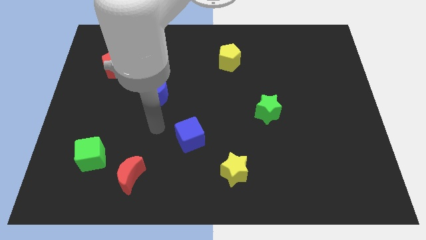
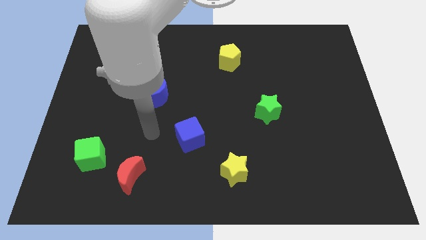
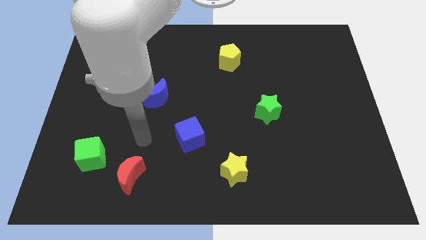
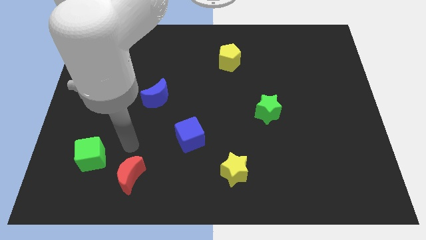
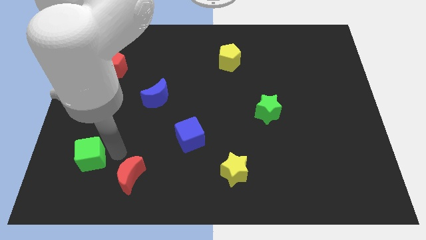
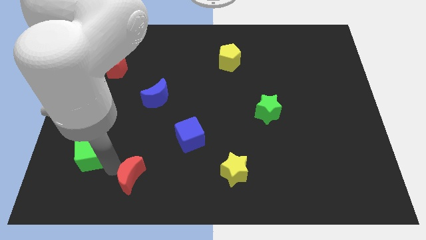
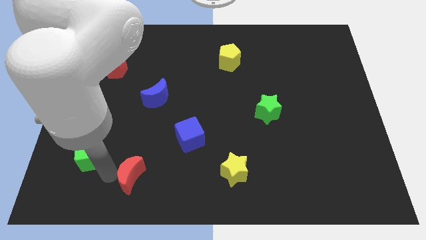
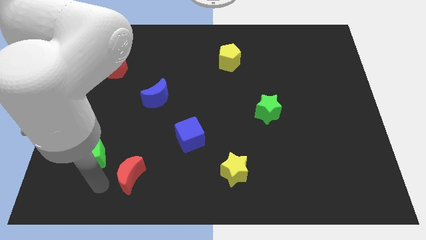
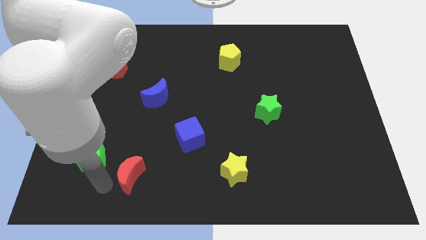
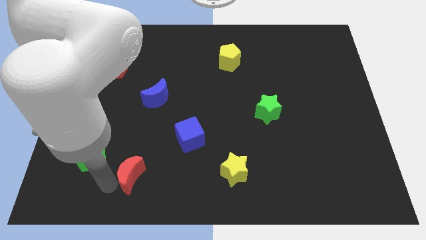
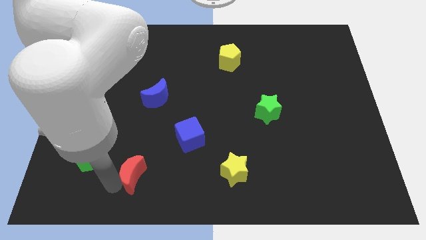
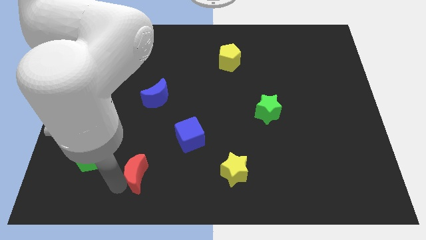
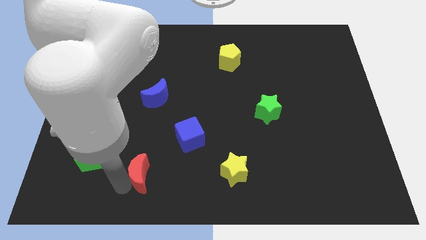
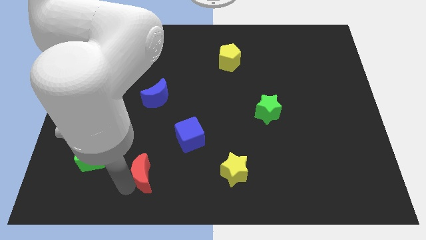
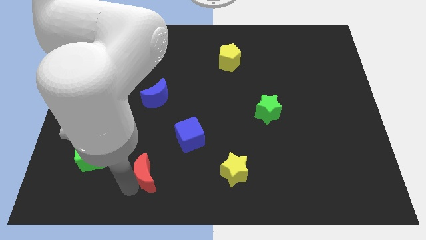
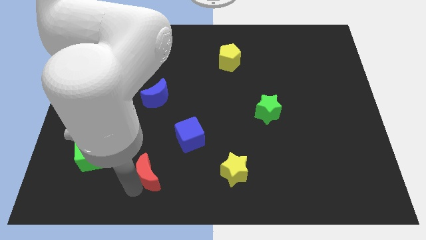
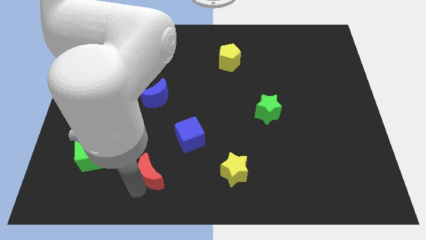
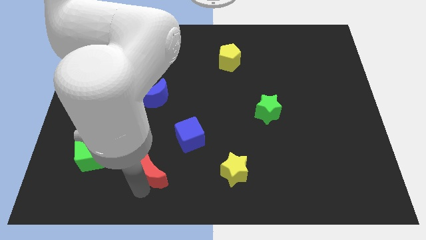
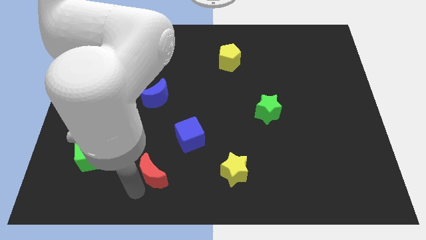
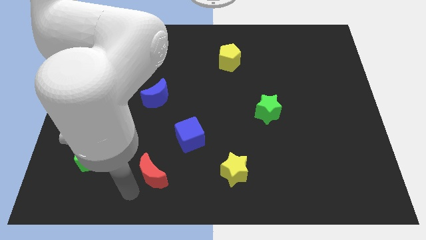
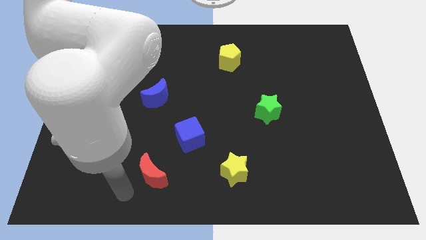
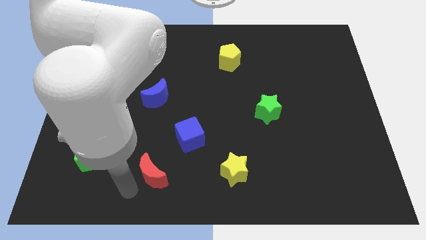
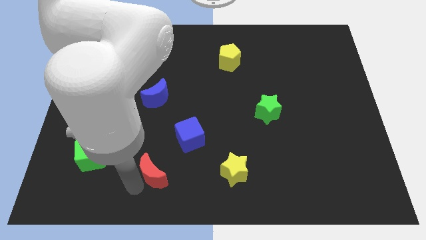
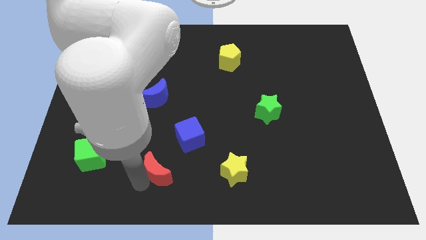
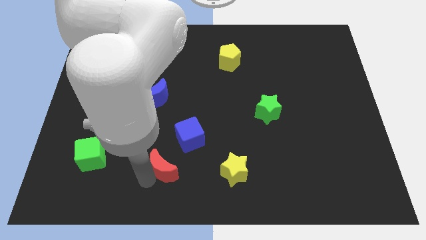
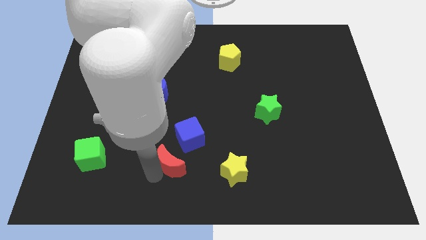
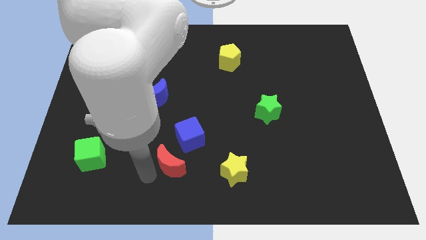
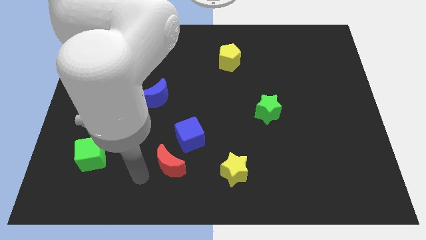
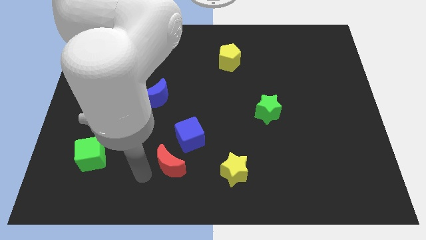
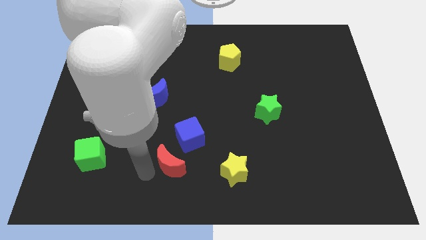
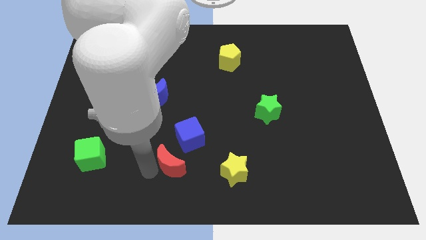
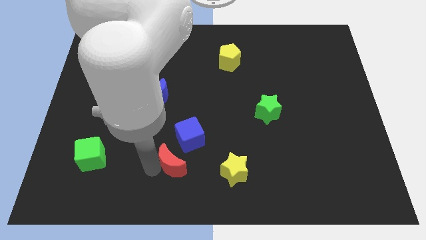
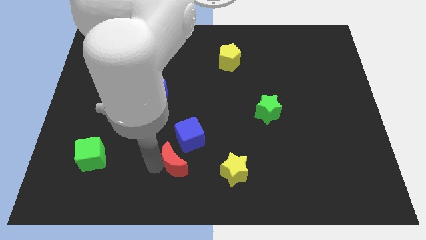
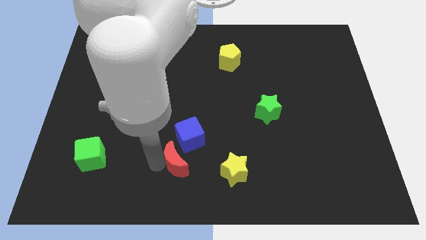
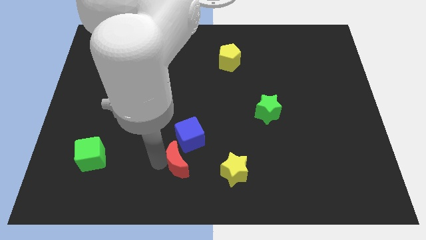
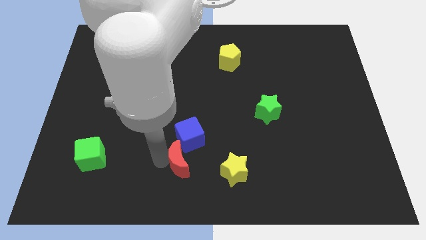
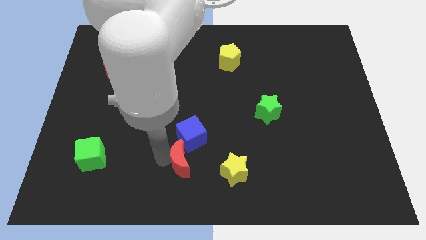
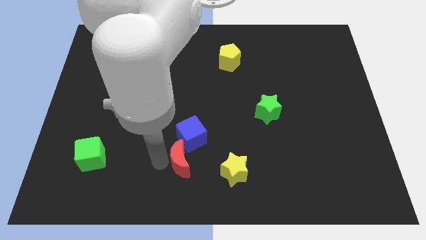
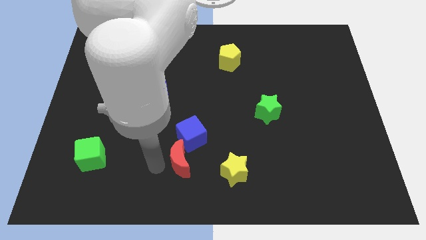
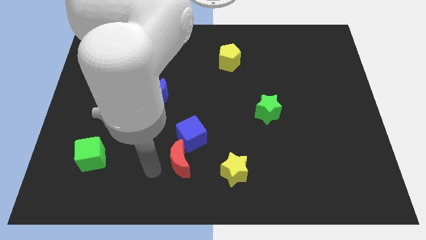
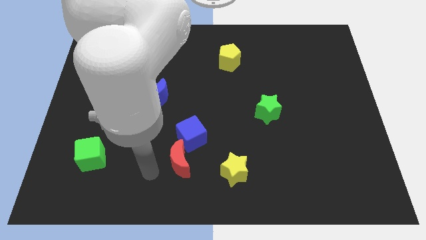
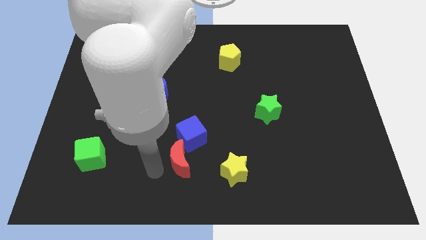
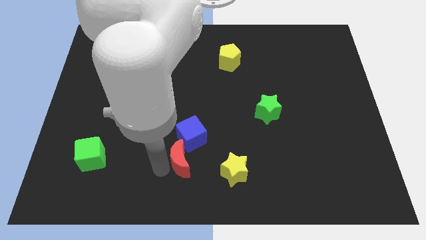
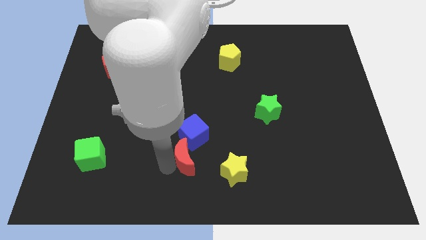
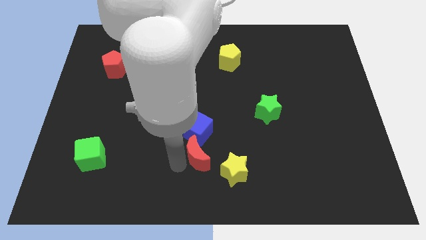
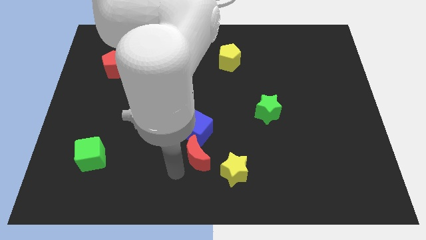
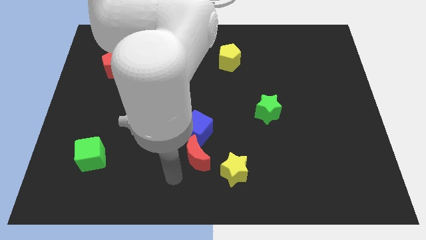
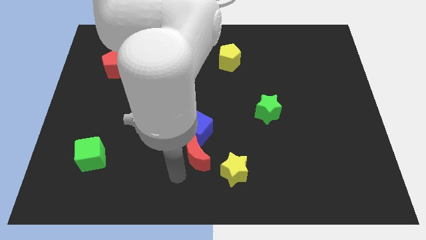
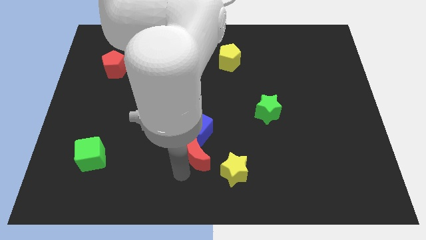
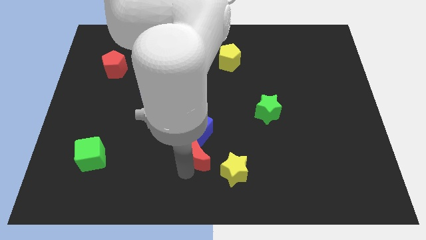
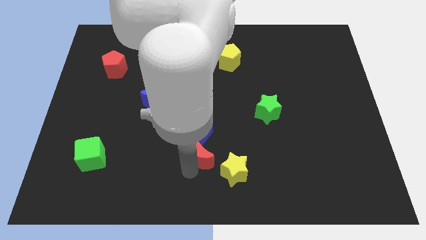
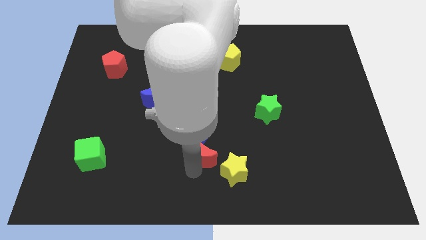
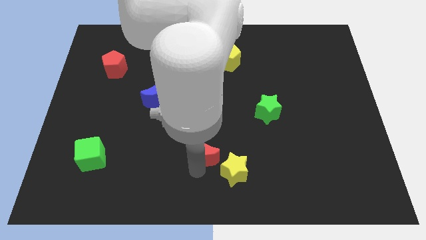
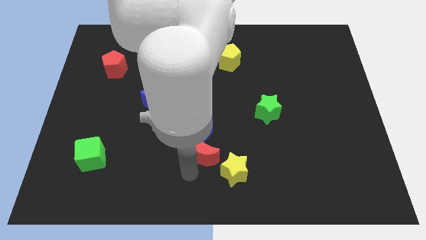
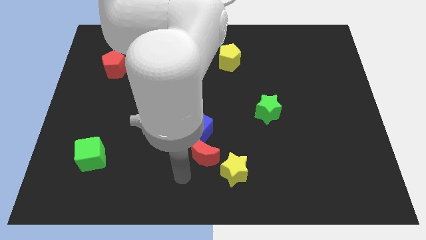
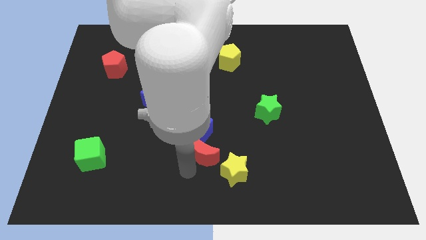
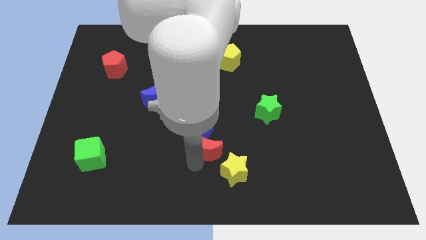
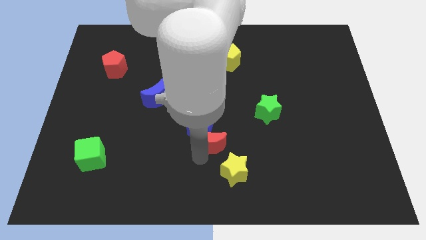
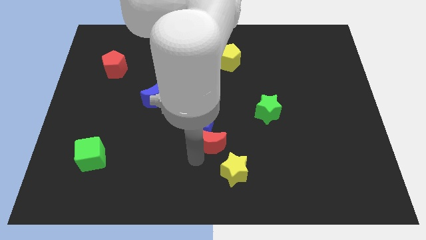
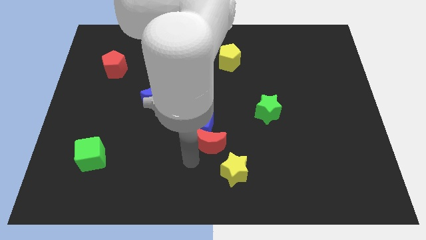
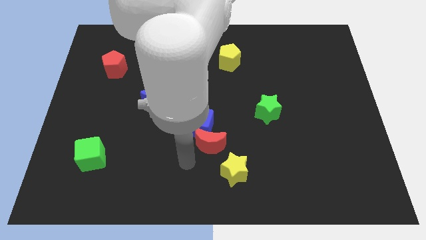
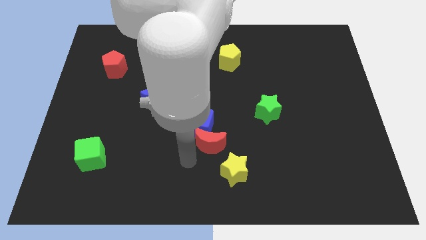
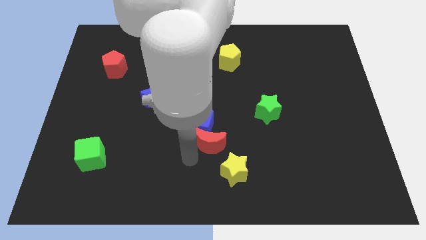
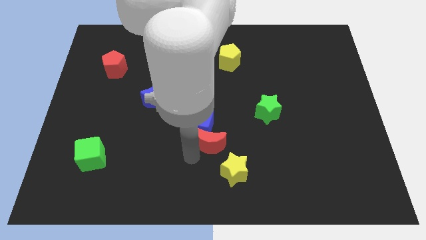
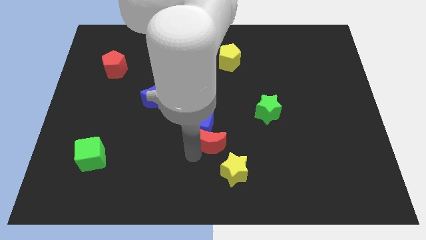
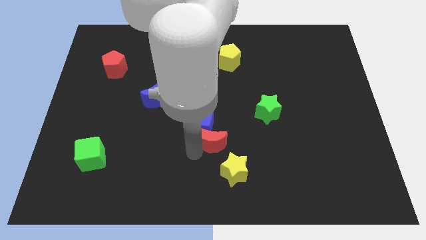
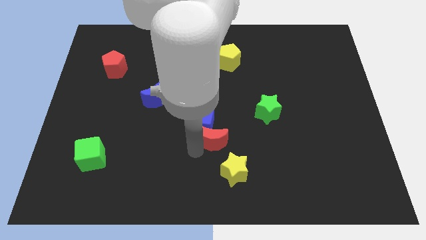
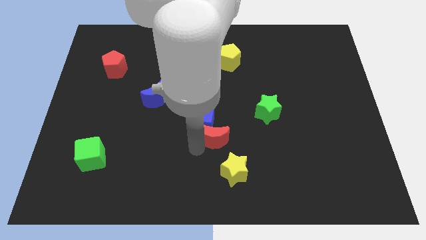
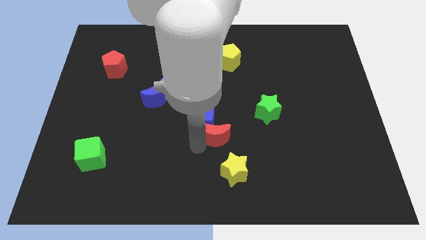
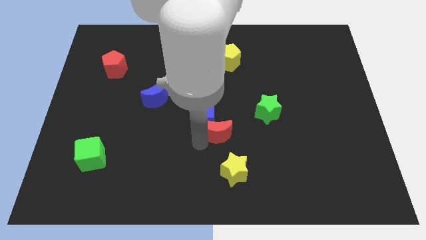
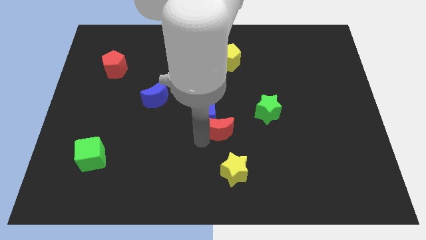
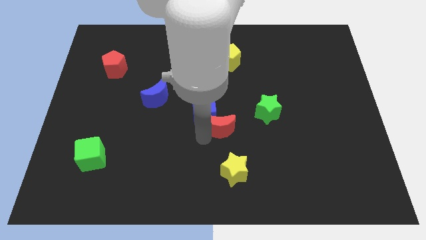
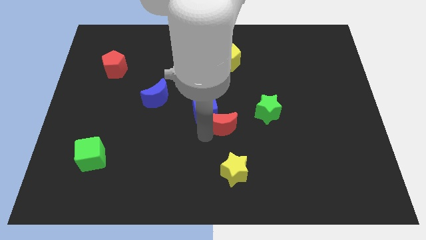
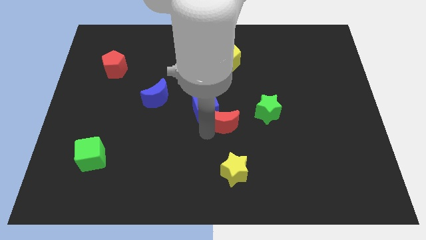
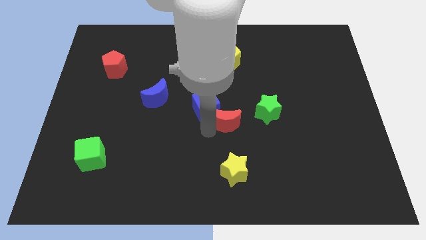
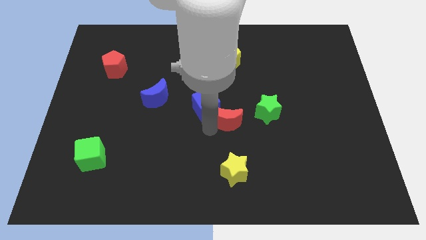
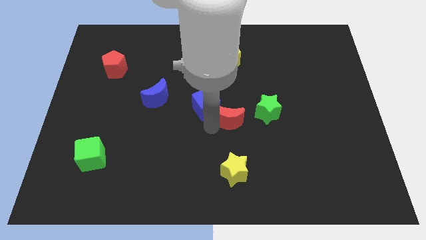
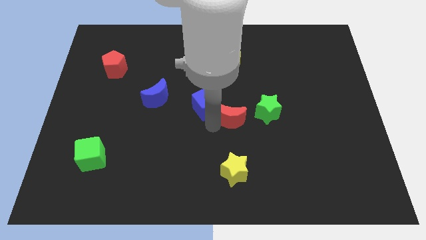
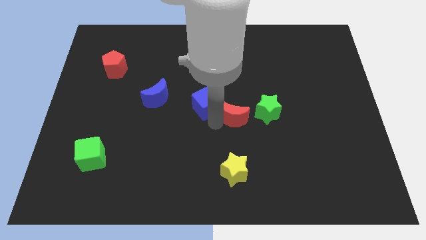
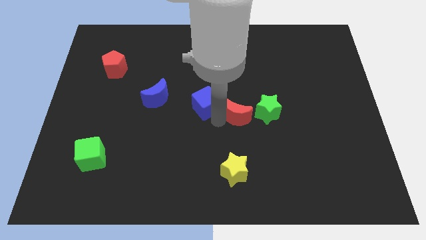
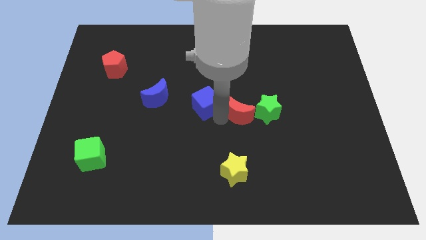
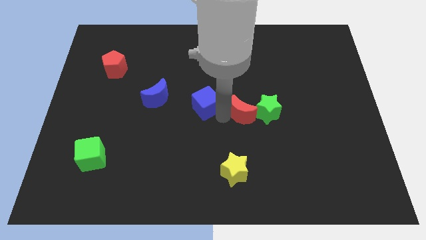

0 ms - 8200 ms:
push the red moon to the green star
